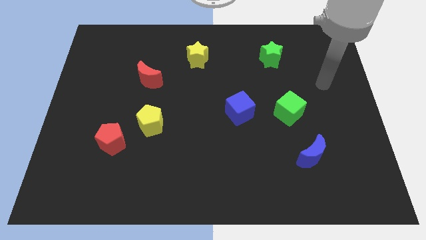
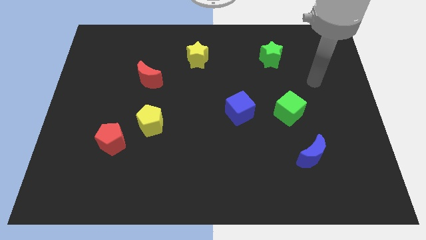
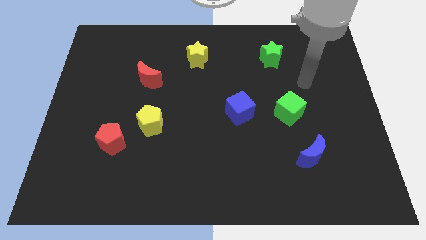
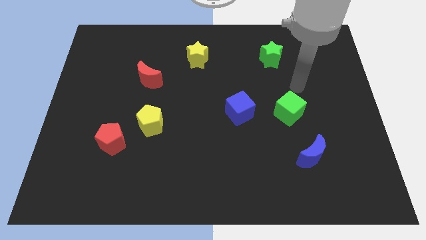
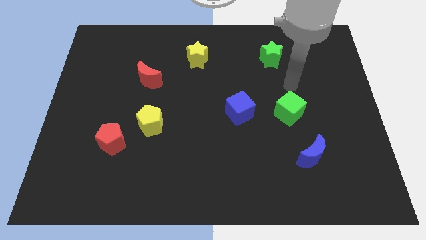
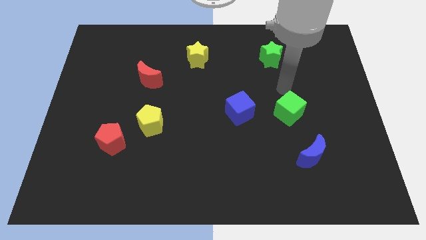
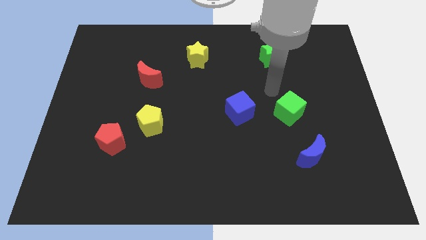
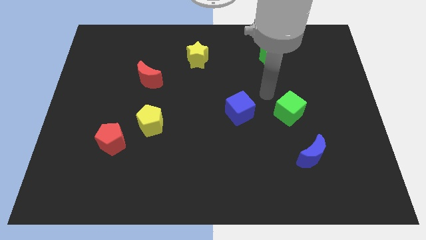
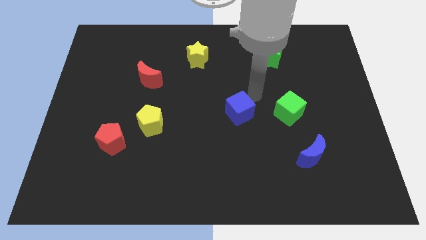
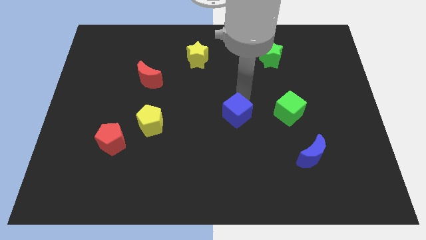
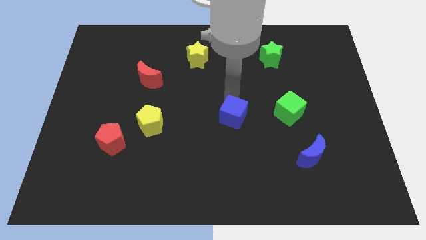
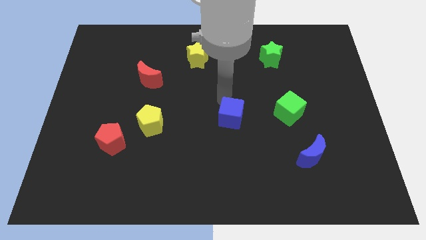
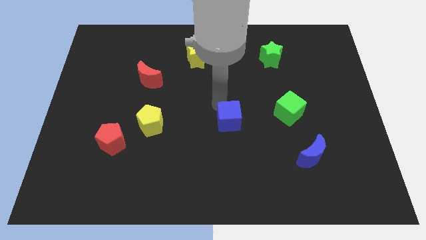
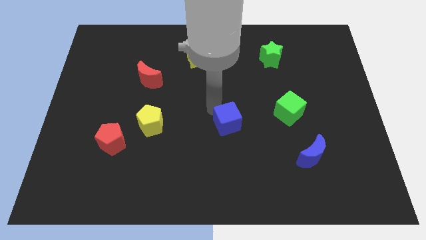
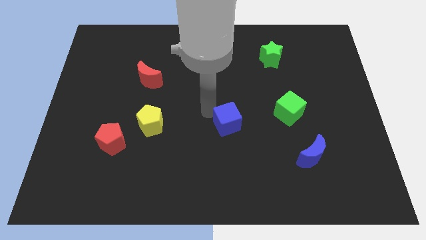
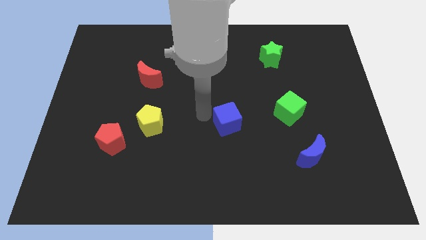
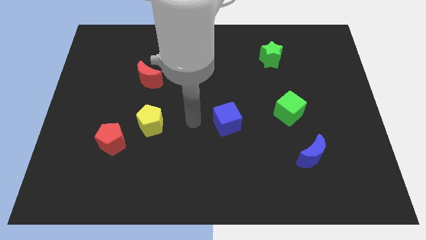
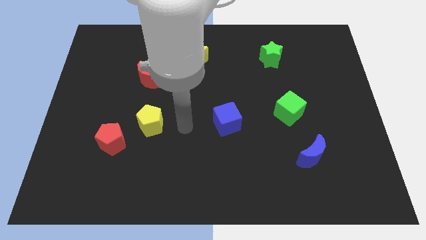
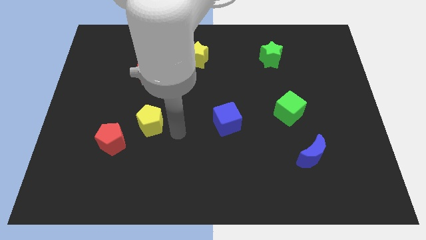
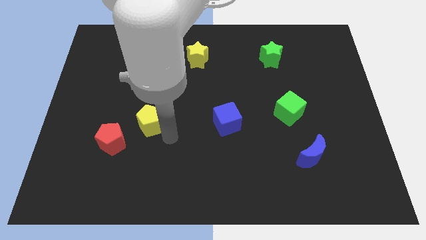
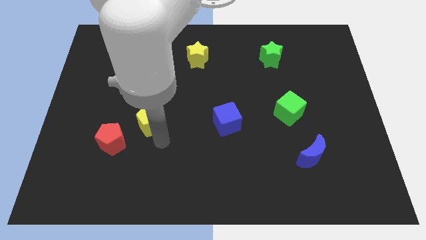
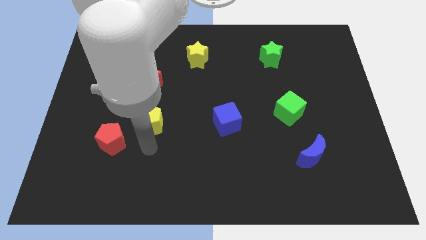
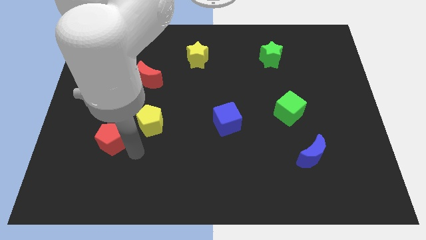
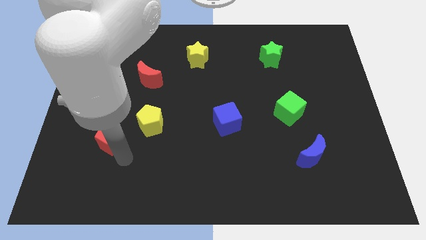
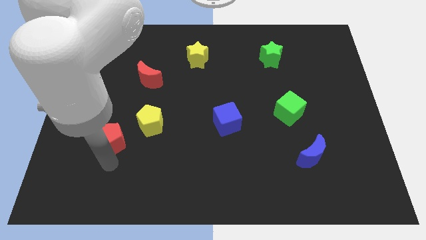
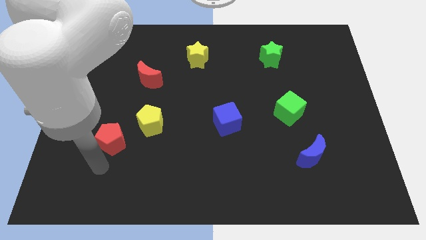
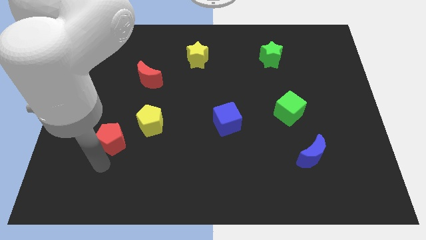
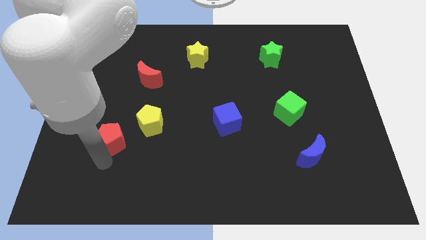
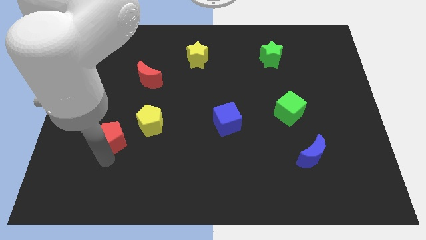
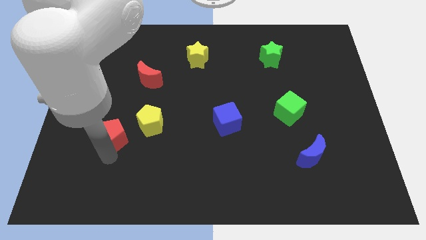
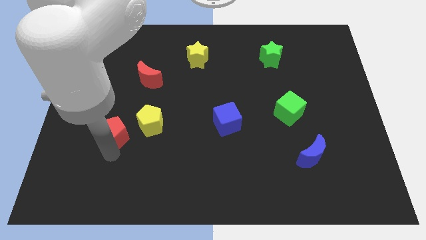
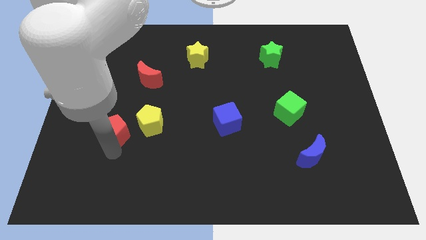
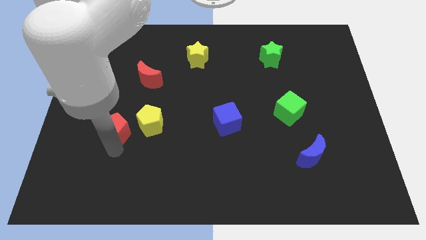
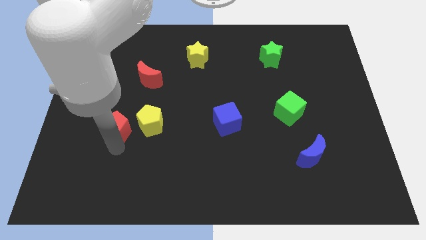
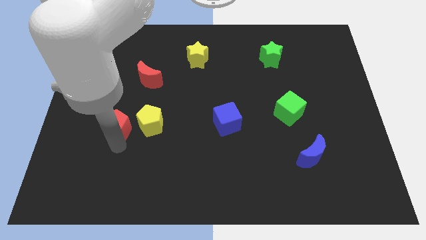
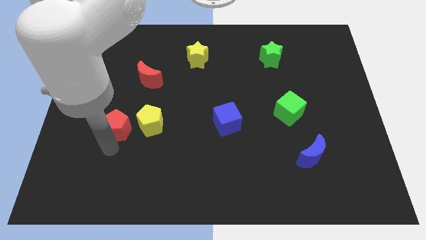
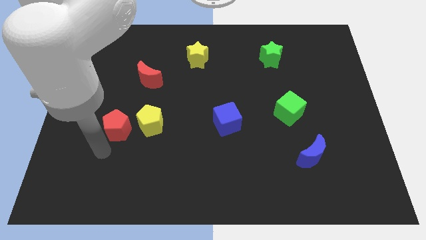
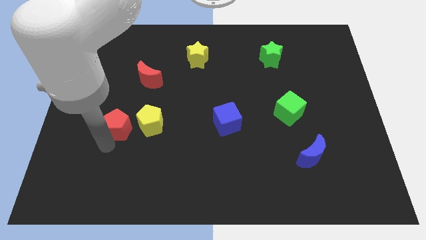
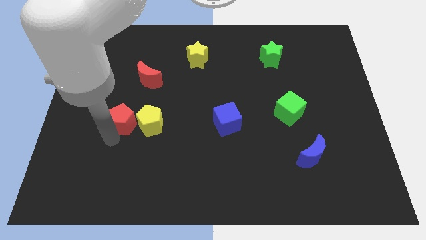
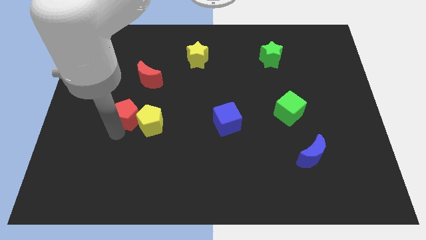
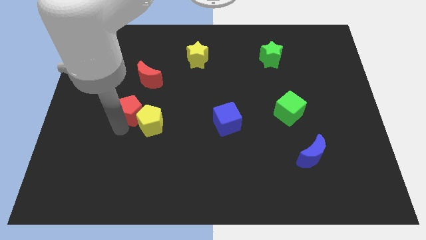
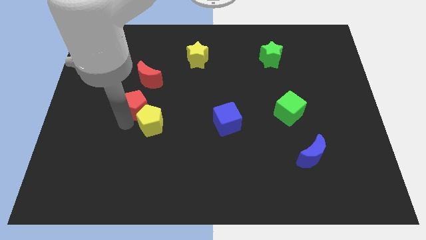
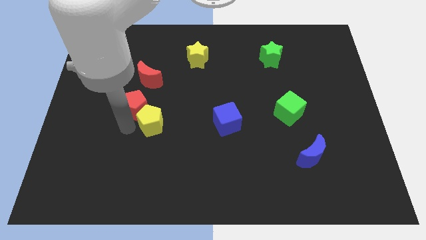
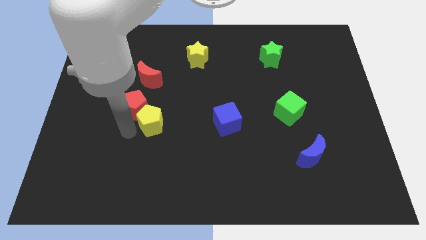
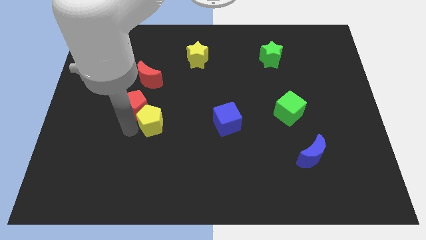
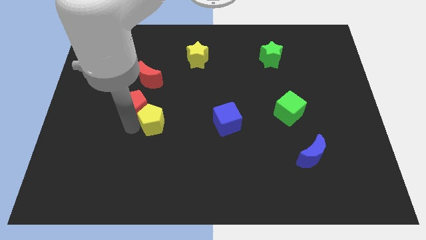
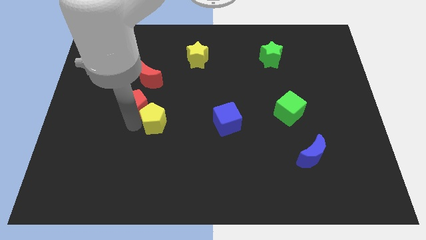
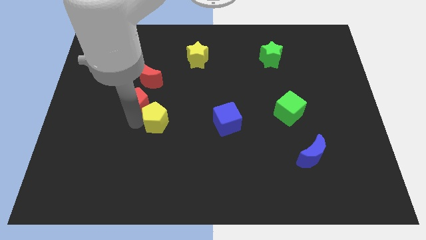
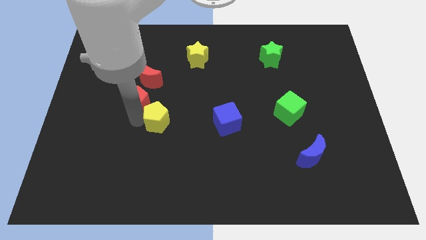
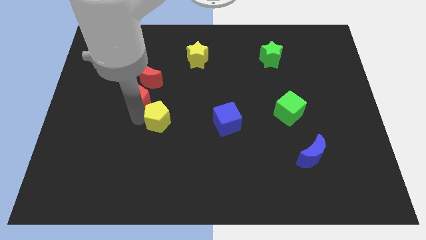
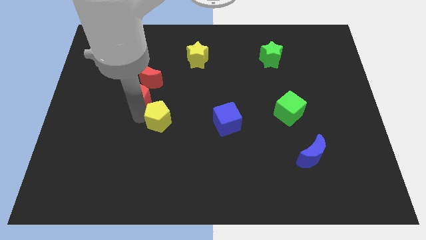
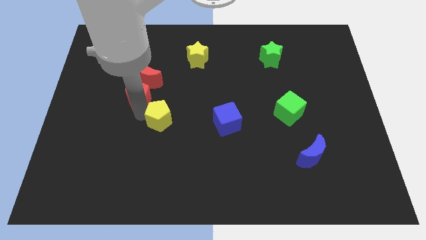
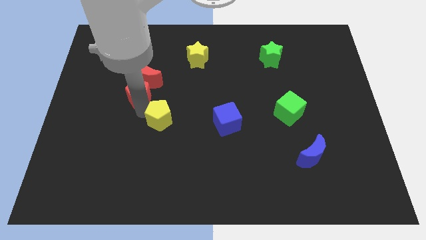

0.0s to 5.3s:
move the red pentagon close to the red moon

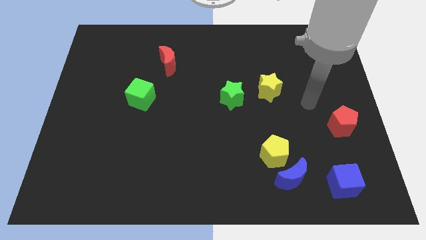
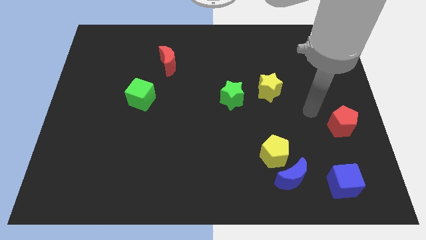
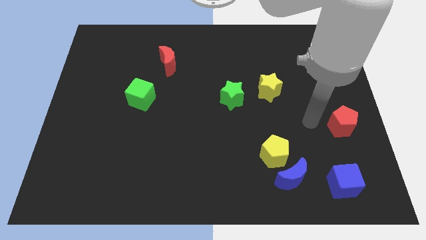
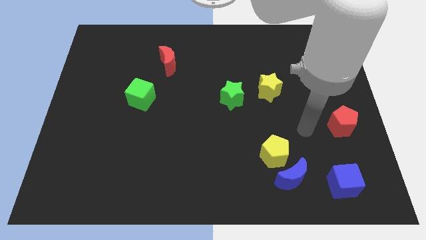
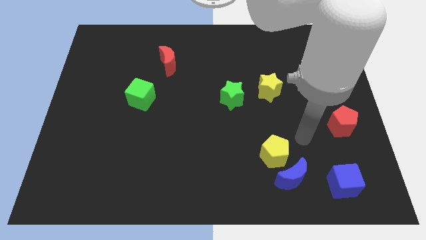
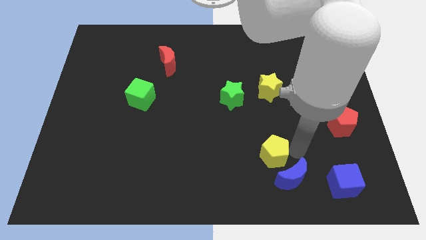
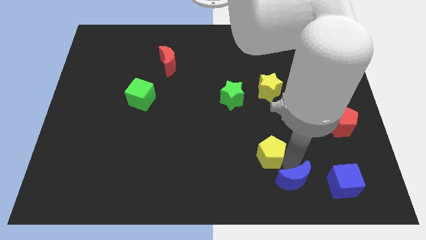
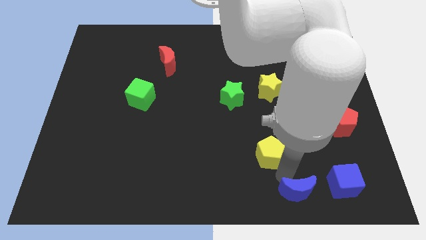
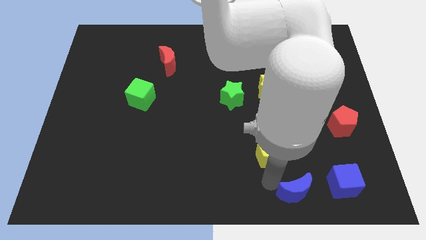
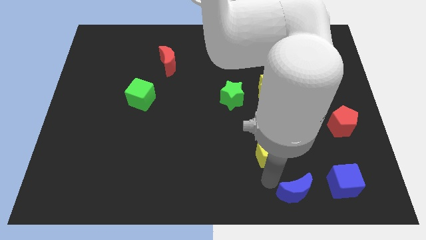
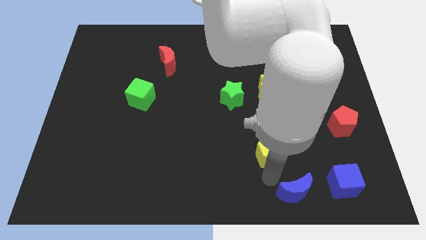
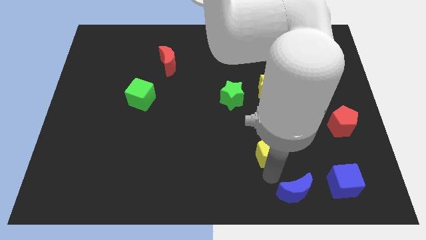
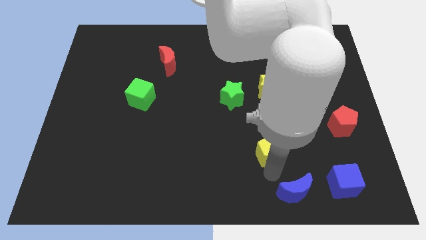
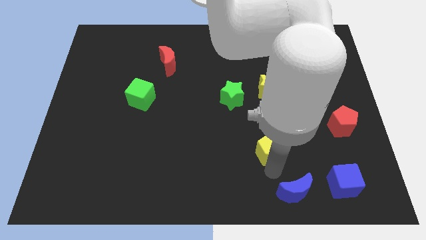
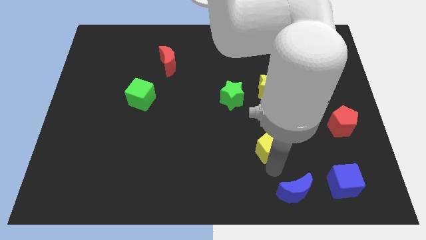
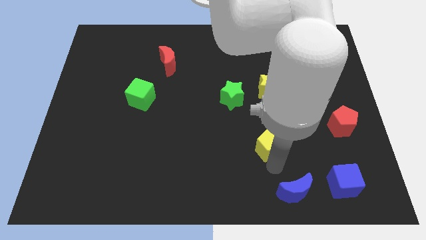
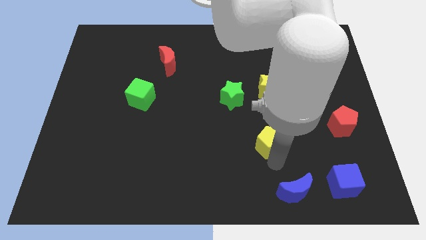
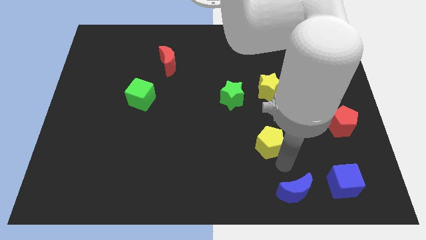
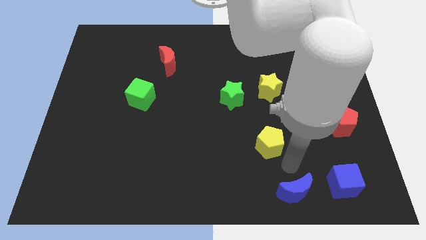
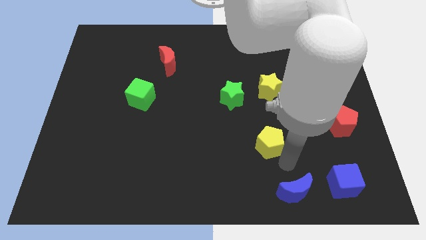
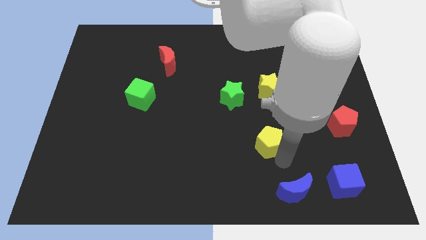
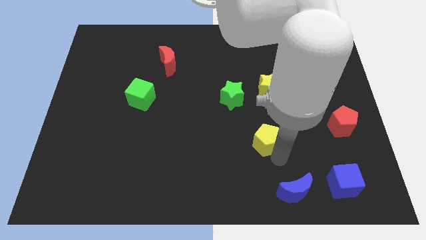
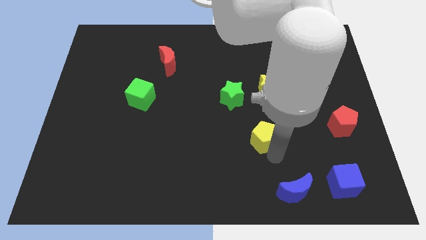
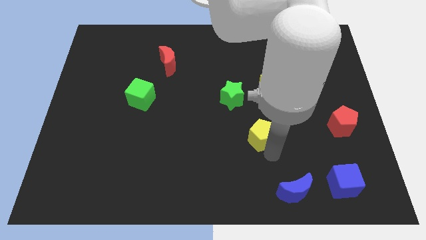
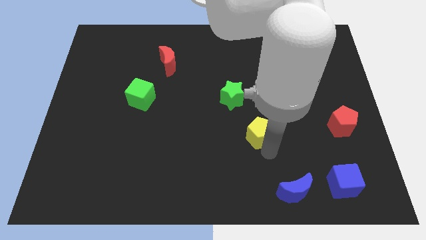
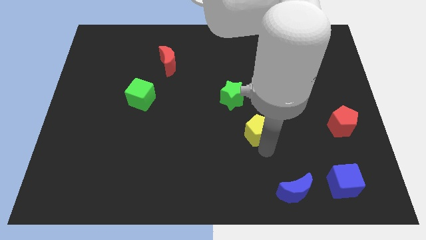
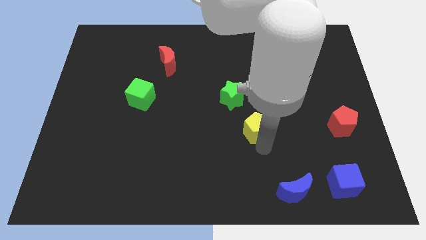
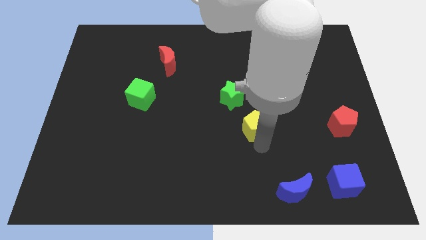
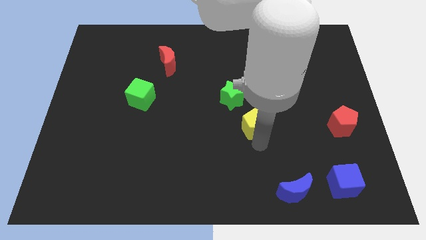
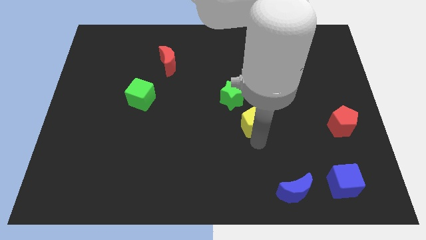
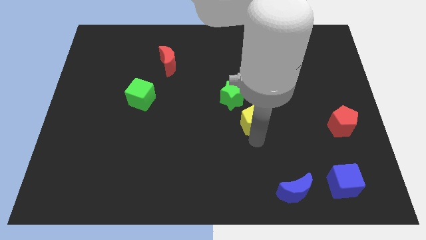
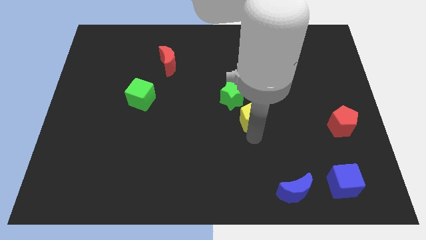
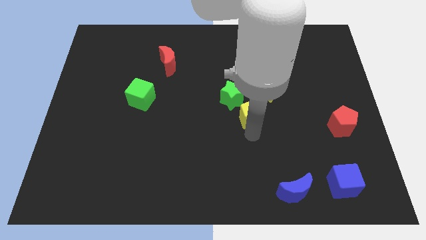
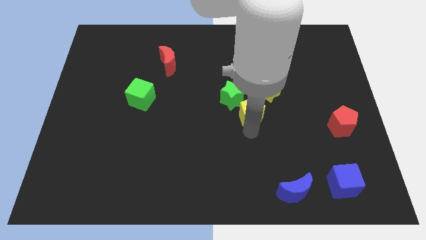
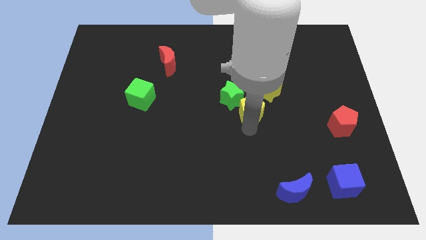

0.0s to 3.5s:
move the yellow pentagon to the green star
